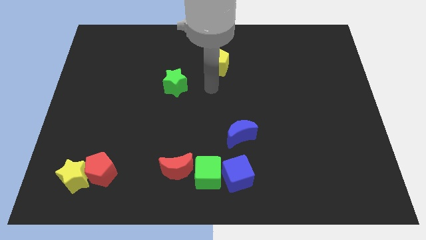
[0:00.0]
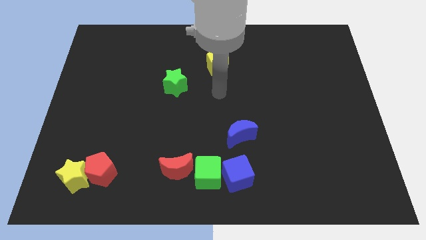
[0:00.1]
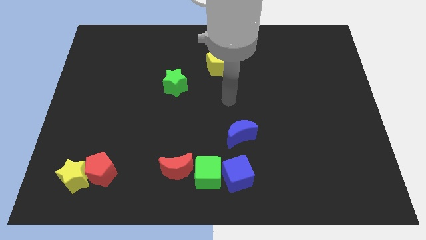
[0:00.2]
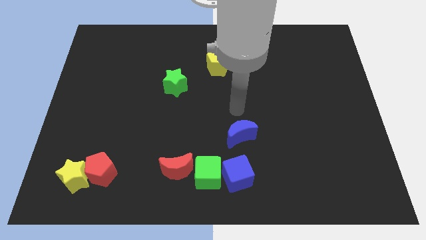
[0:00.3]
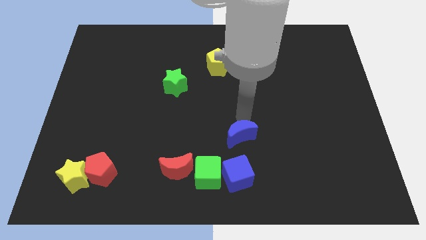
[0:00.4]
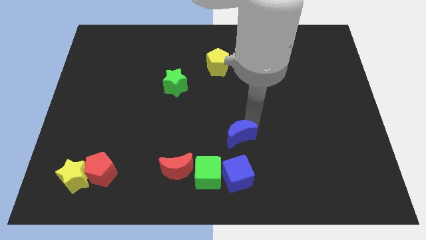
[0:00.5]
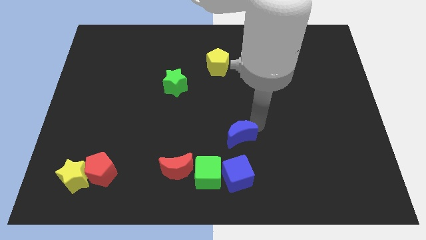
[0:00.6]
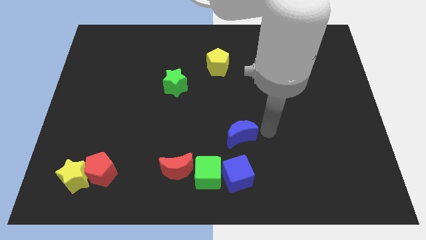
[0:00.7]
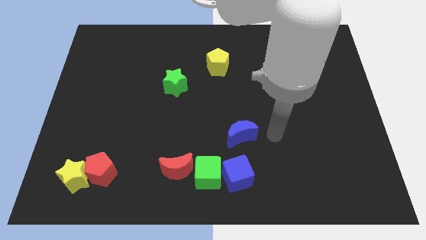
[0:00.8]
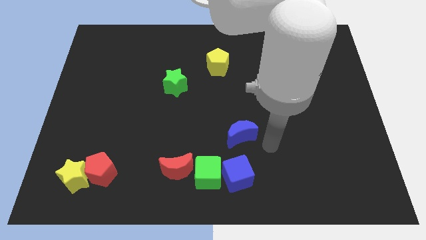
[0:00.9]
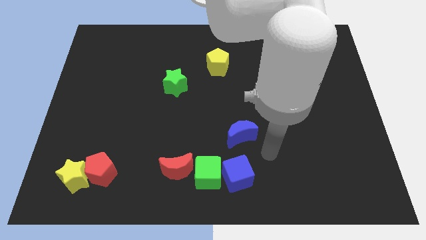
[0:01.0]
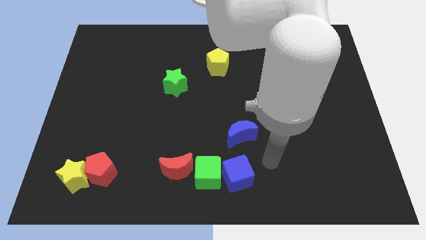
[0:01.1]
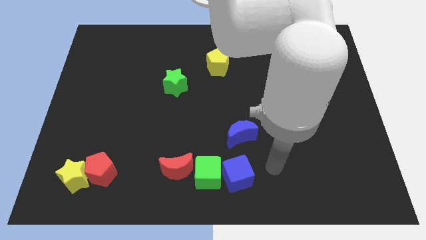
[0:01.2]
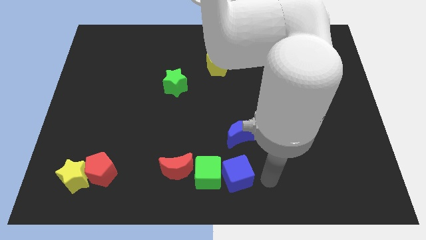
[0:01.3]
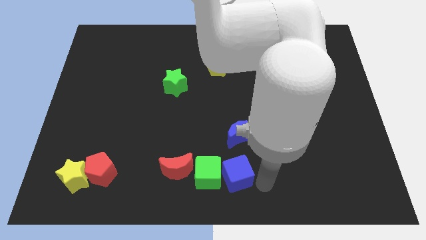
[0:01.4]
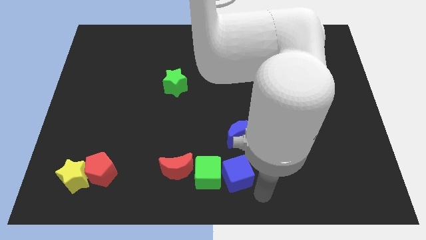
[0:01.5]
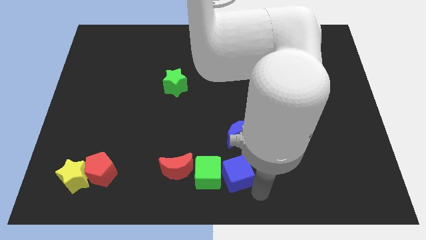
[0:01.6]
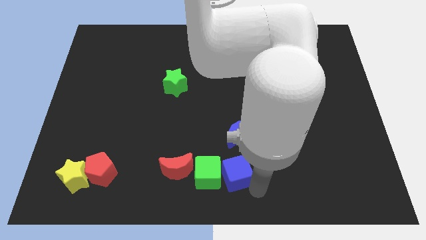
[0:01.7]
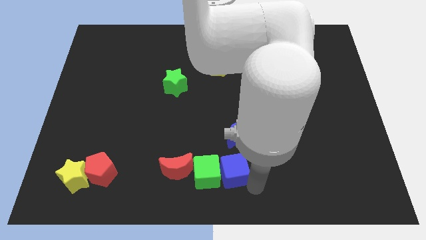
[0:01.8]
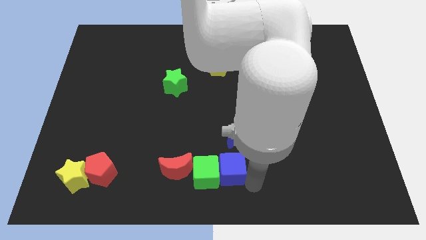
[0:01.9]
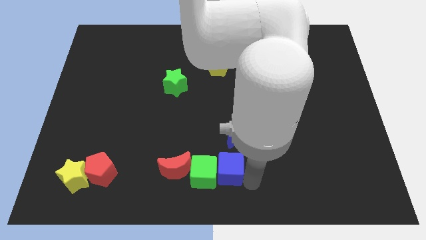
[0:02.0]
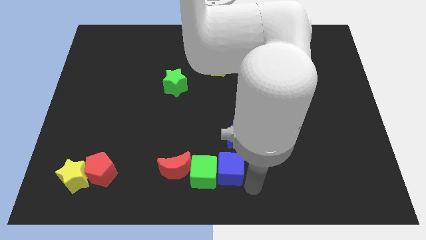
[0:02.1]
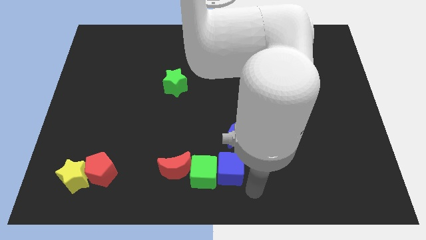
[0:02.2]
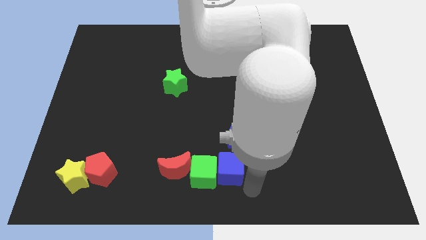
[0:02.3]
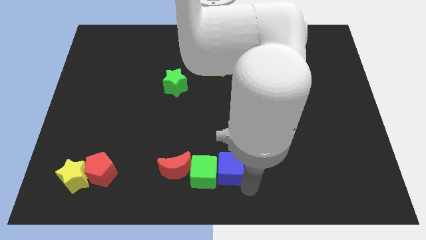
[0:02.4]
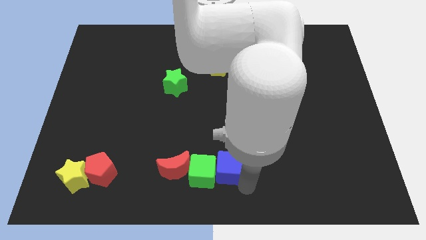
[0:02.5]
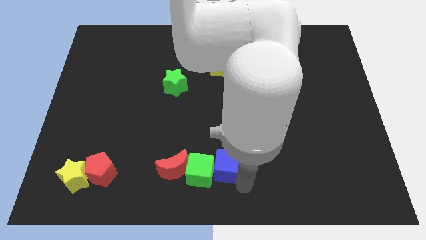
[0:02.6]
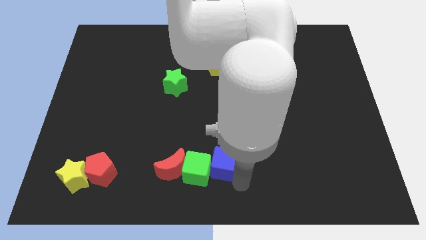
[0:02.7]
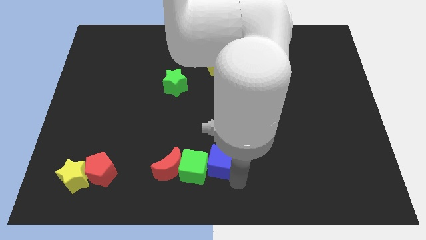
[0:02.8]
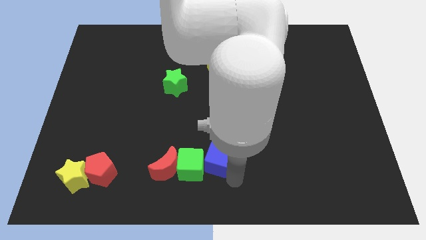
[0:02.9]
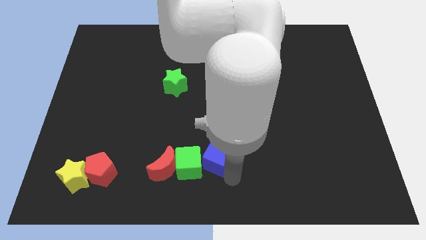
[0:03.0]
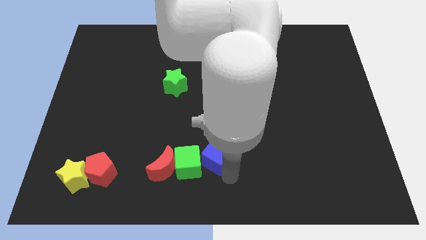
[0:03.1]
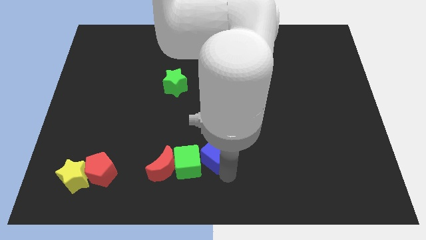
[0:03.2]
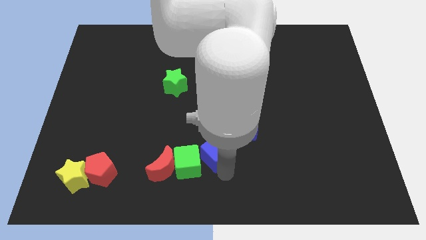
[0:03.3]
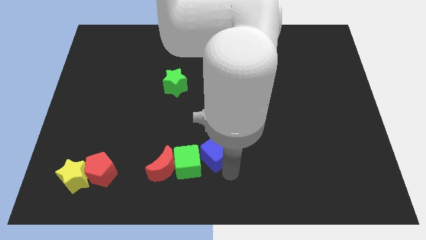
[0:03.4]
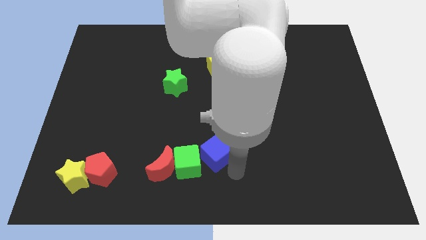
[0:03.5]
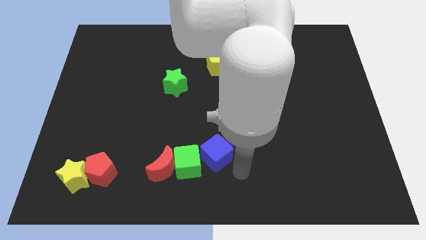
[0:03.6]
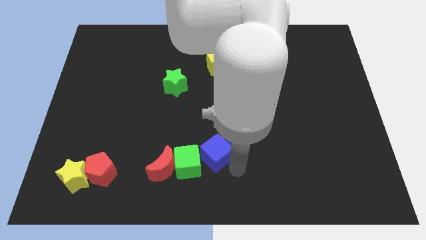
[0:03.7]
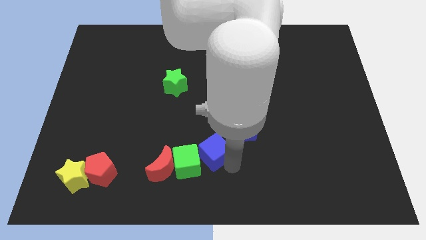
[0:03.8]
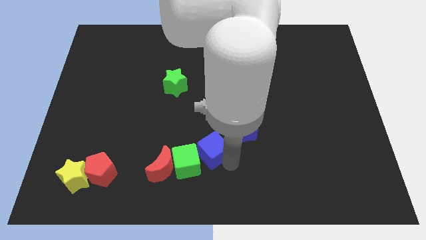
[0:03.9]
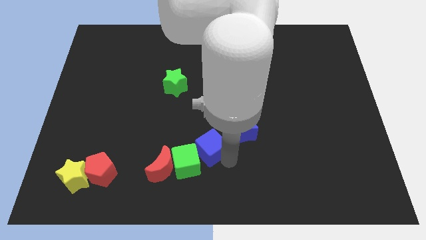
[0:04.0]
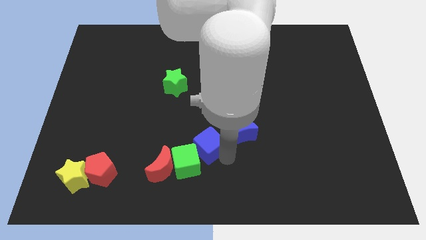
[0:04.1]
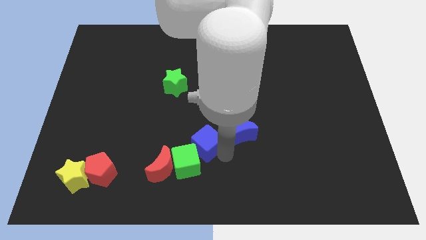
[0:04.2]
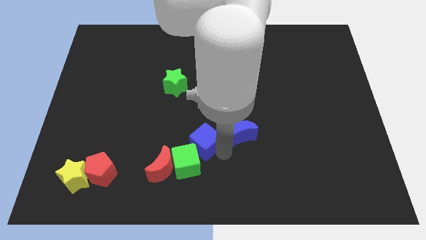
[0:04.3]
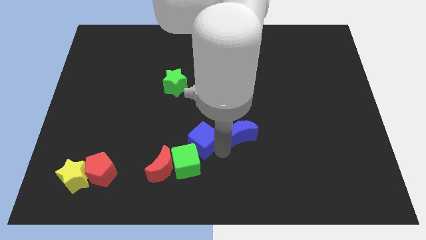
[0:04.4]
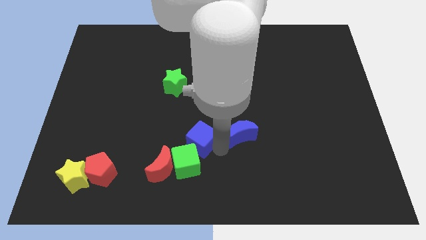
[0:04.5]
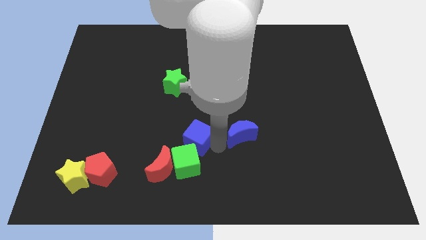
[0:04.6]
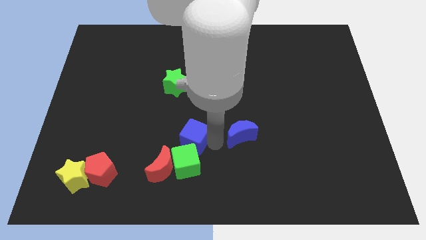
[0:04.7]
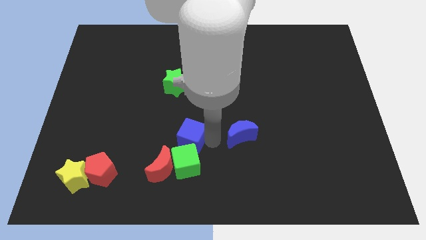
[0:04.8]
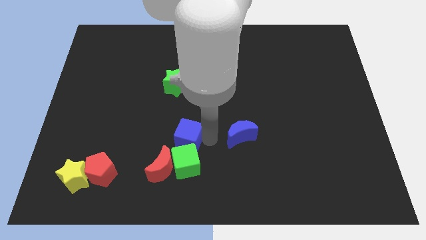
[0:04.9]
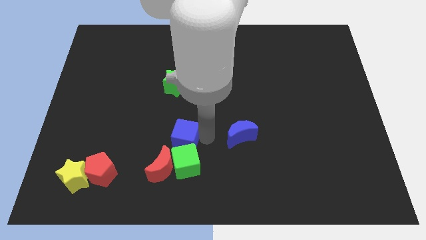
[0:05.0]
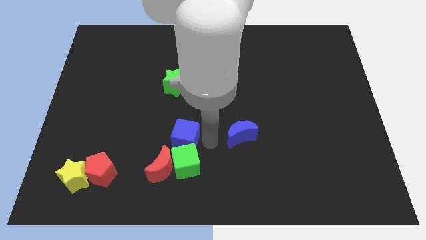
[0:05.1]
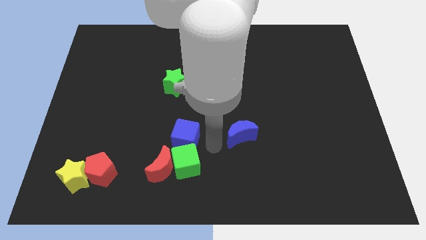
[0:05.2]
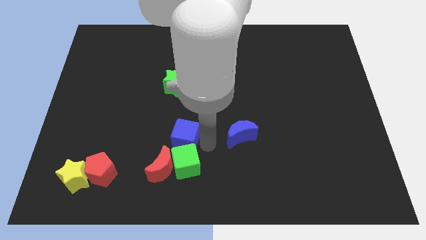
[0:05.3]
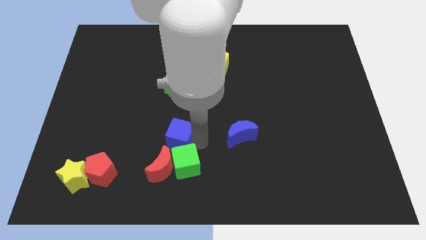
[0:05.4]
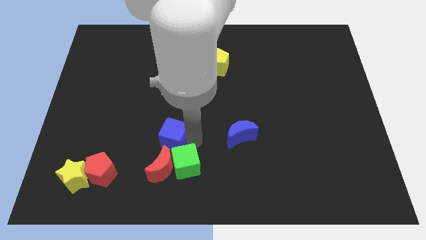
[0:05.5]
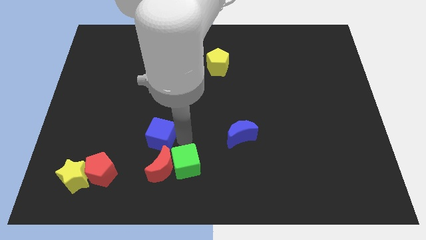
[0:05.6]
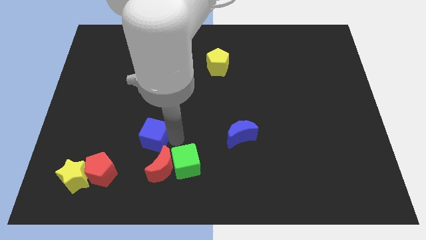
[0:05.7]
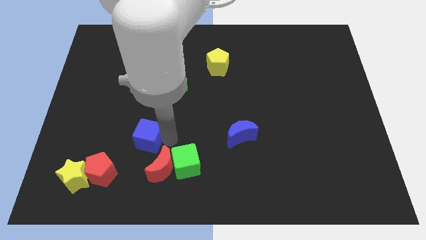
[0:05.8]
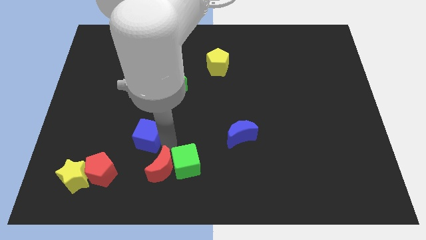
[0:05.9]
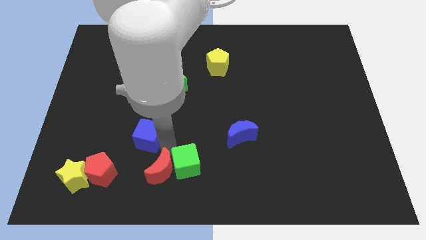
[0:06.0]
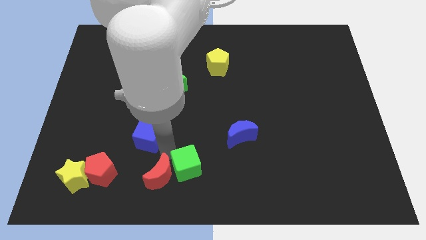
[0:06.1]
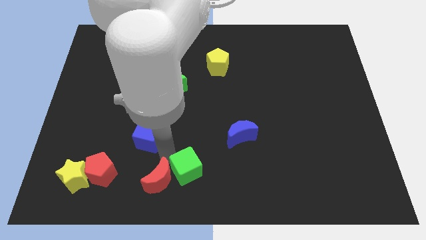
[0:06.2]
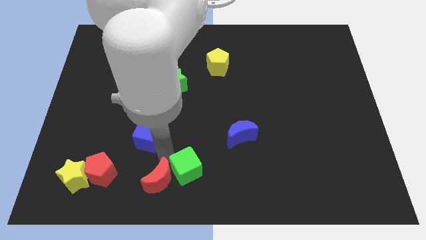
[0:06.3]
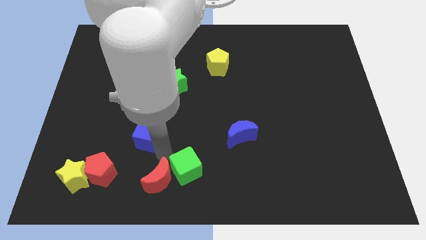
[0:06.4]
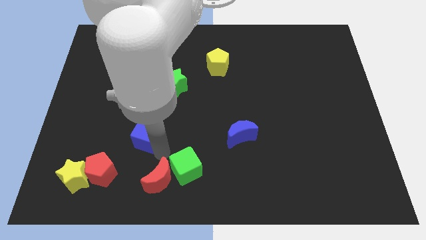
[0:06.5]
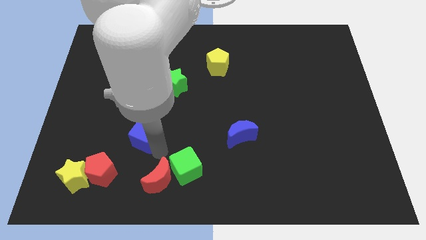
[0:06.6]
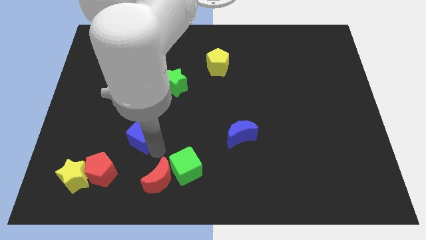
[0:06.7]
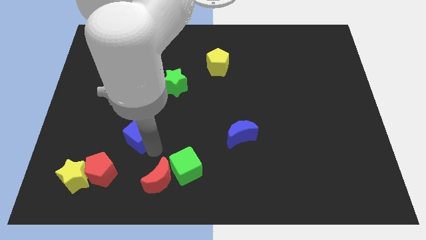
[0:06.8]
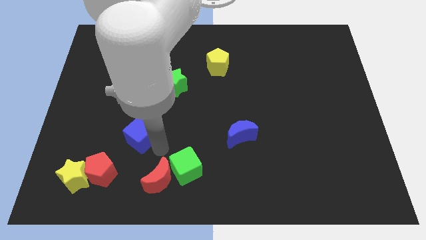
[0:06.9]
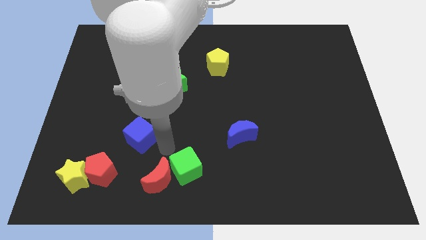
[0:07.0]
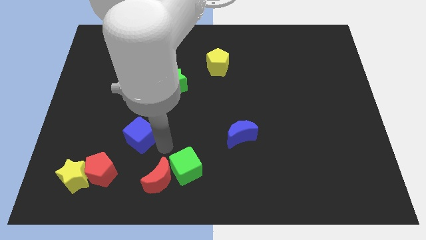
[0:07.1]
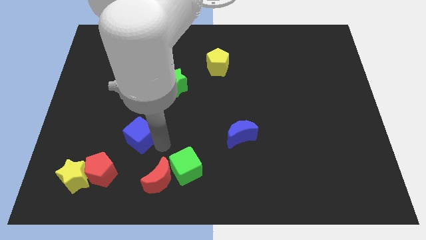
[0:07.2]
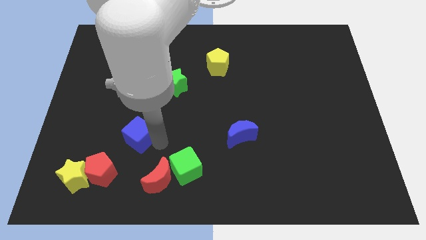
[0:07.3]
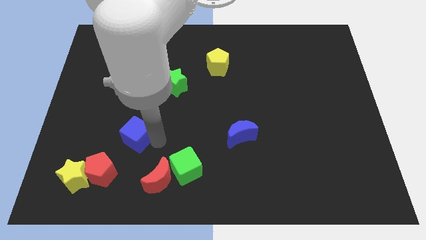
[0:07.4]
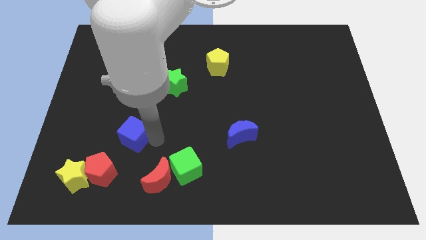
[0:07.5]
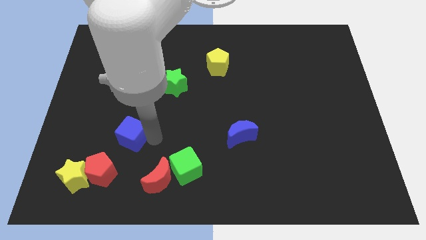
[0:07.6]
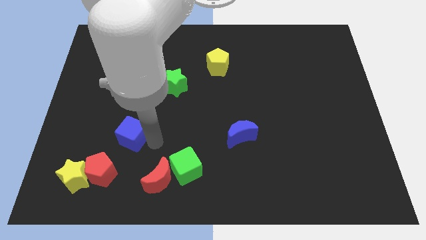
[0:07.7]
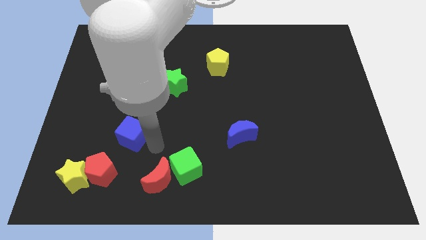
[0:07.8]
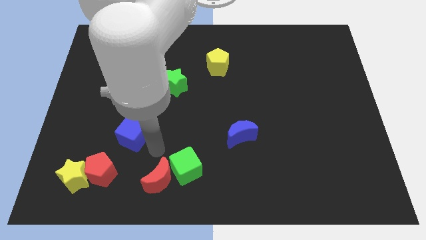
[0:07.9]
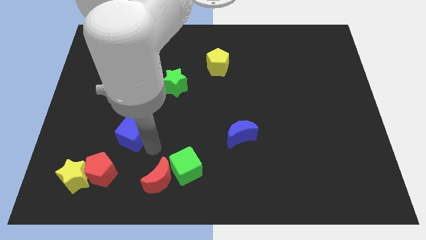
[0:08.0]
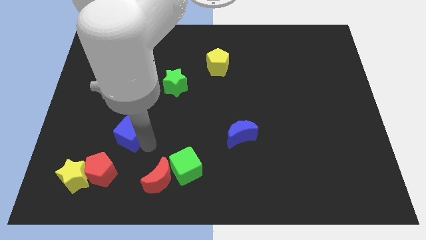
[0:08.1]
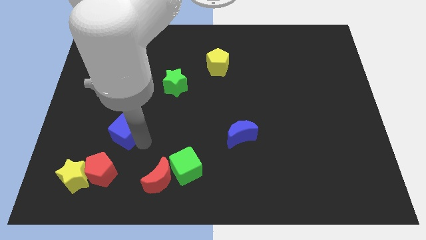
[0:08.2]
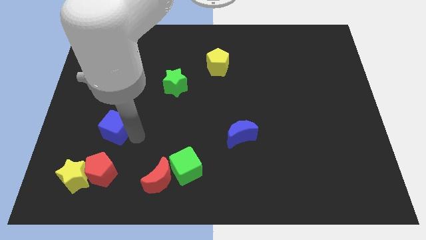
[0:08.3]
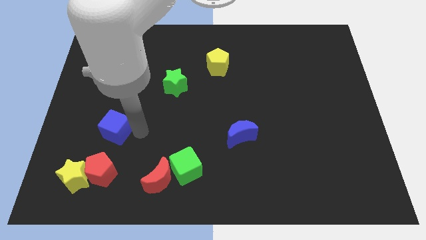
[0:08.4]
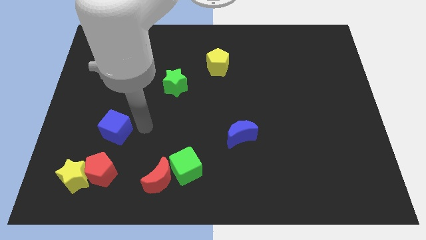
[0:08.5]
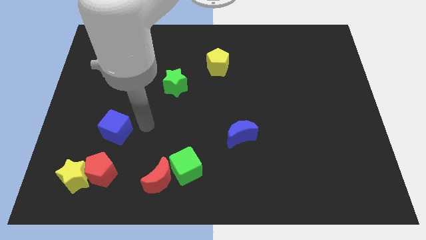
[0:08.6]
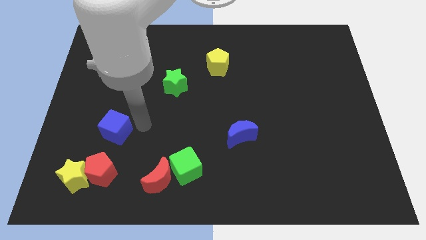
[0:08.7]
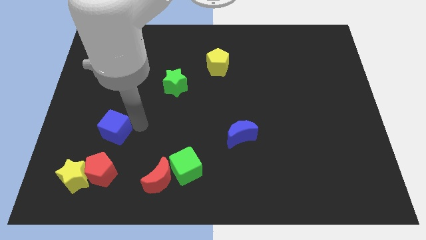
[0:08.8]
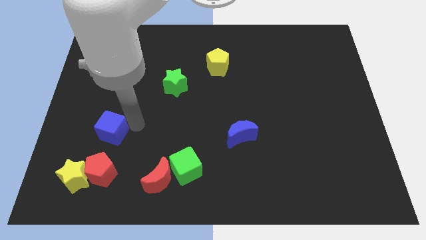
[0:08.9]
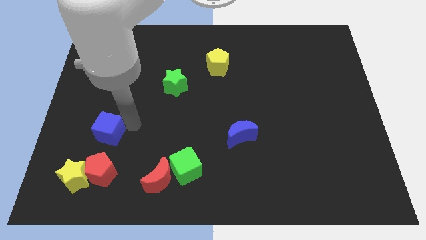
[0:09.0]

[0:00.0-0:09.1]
push the blue cube to the top side of the yellow star
